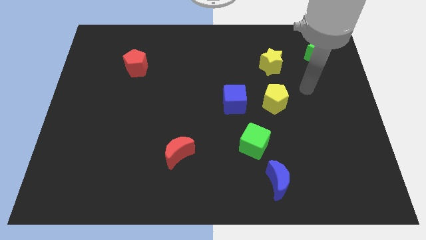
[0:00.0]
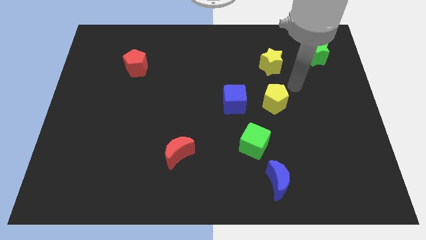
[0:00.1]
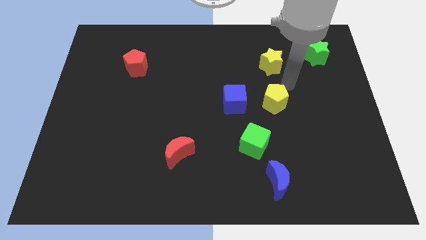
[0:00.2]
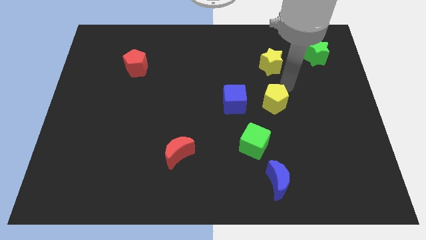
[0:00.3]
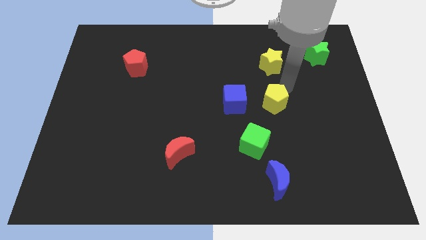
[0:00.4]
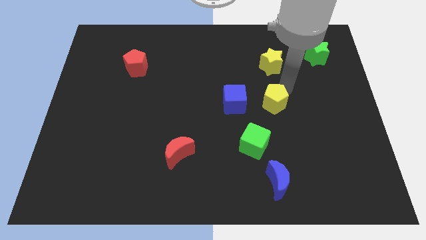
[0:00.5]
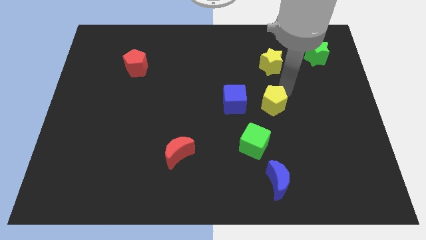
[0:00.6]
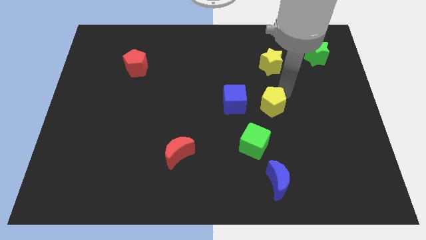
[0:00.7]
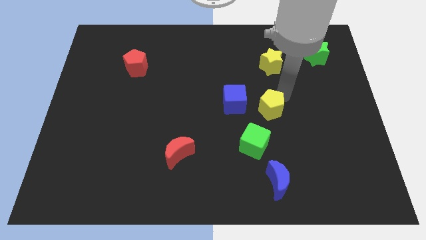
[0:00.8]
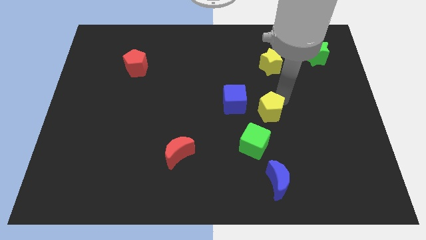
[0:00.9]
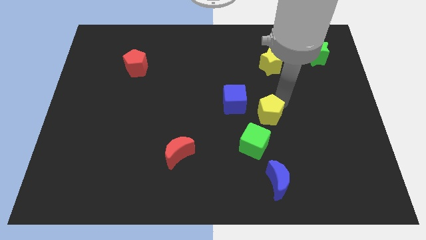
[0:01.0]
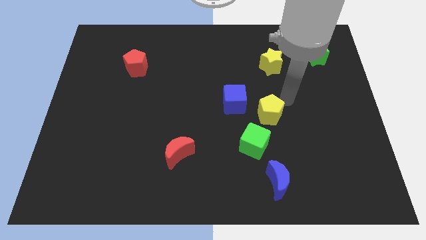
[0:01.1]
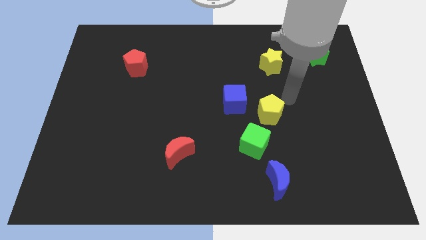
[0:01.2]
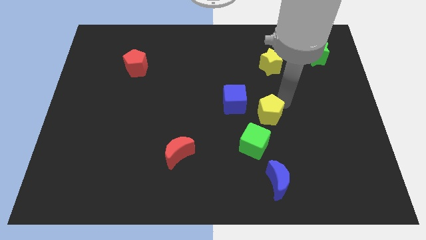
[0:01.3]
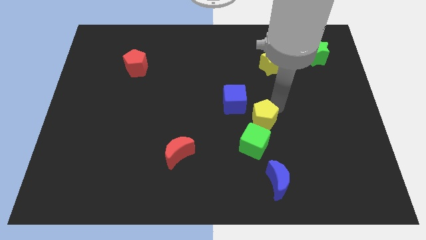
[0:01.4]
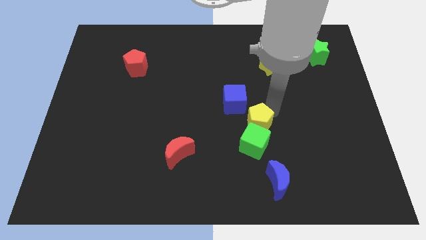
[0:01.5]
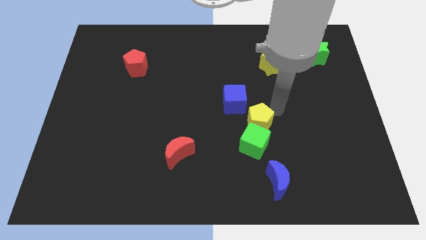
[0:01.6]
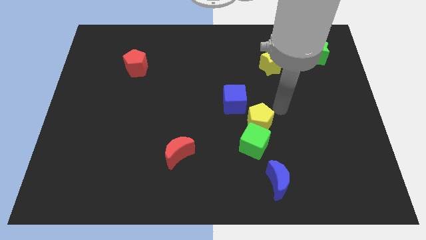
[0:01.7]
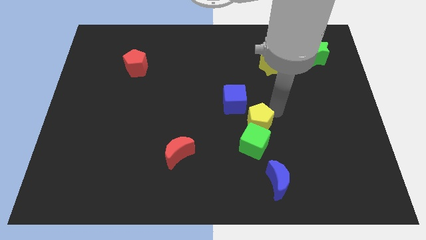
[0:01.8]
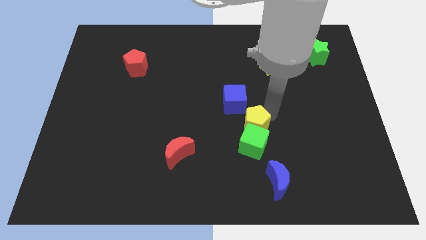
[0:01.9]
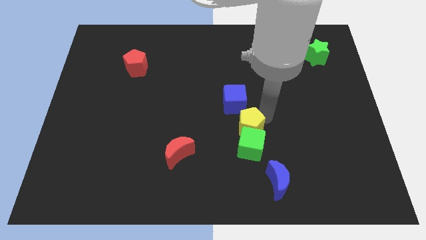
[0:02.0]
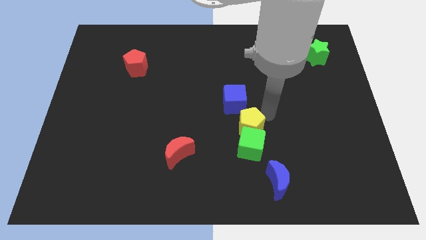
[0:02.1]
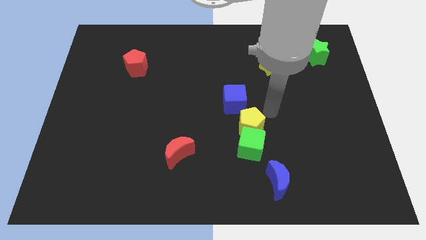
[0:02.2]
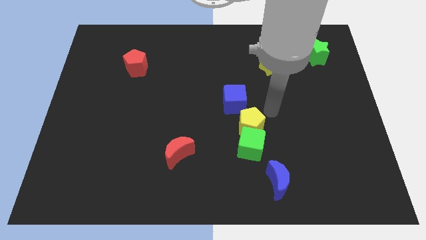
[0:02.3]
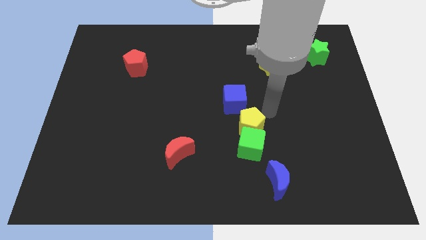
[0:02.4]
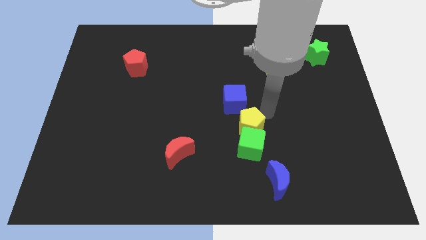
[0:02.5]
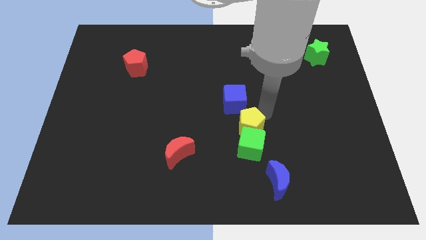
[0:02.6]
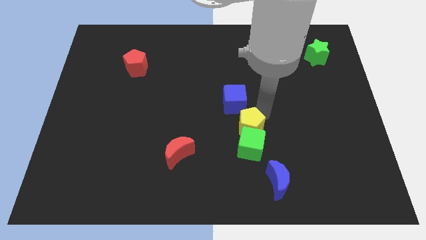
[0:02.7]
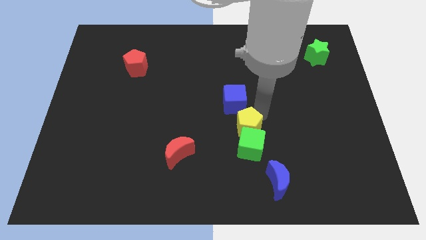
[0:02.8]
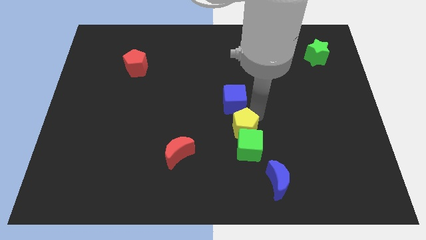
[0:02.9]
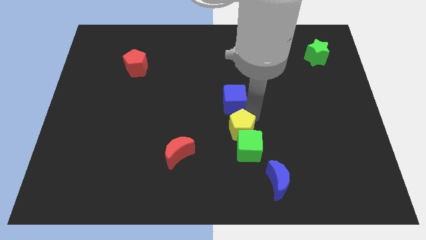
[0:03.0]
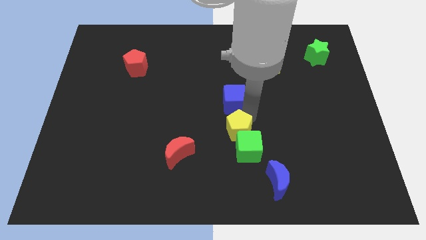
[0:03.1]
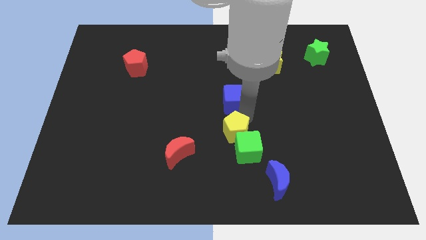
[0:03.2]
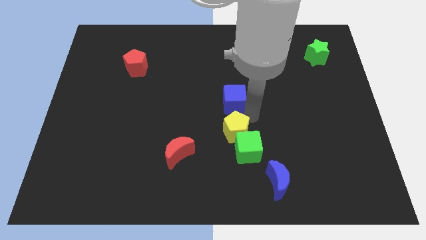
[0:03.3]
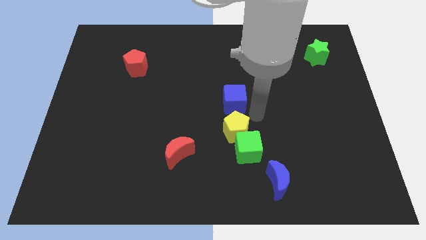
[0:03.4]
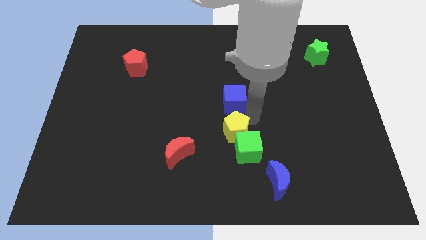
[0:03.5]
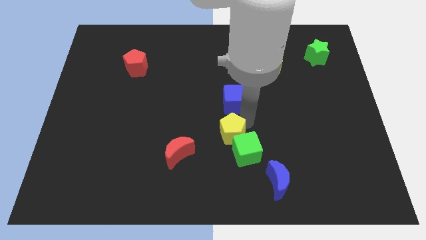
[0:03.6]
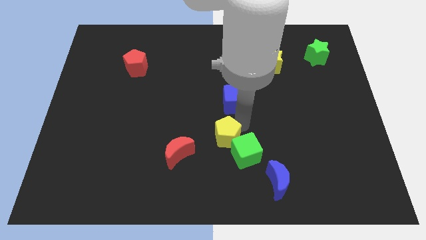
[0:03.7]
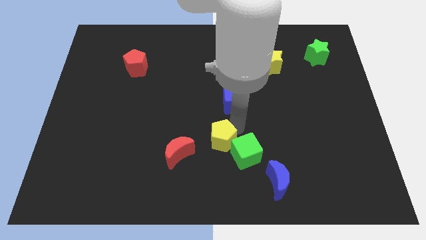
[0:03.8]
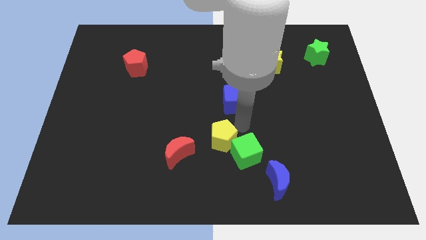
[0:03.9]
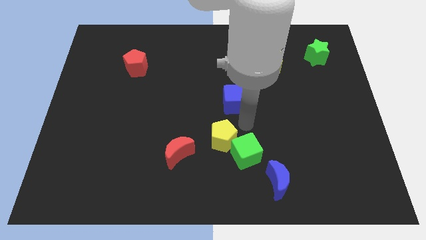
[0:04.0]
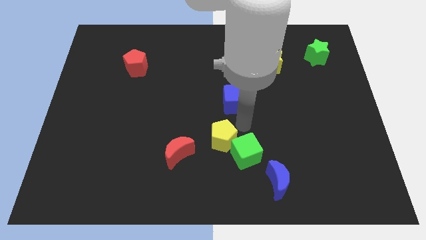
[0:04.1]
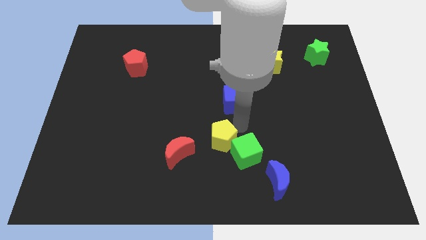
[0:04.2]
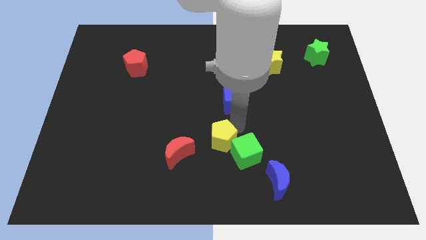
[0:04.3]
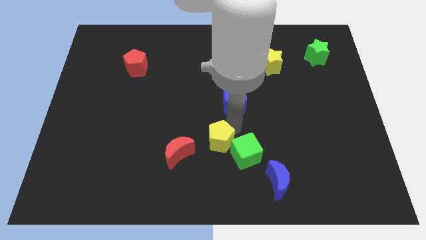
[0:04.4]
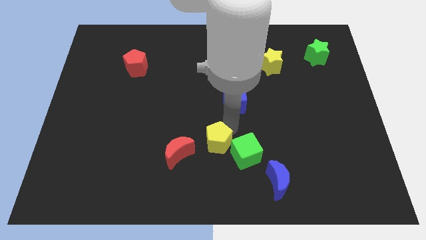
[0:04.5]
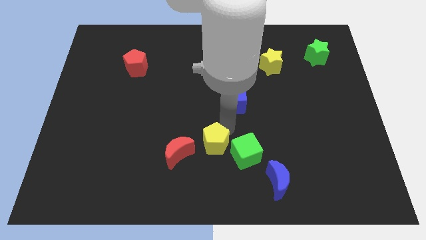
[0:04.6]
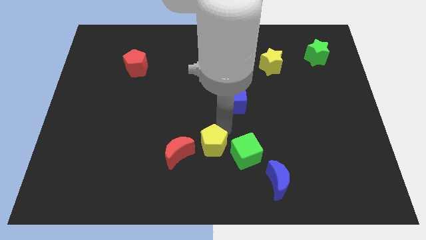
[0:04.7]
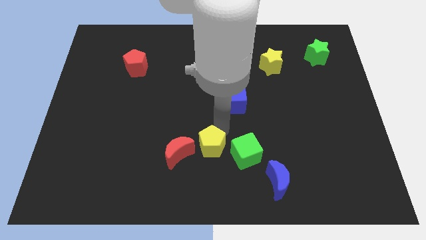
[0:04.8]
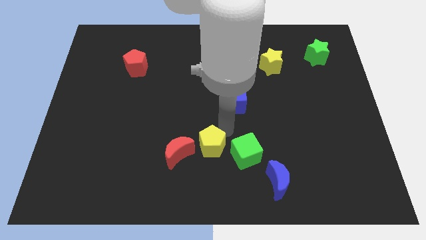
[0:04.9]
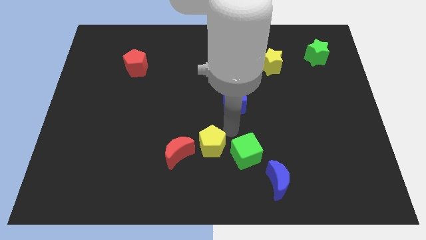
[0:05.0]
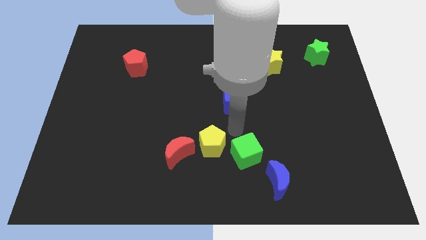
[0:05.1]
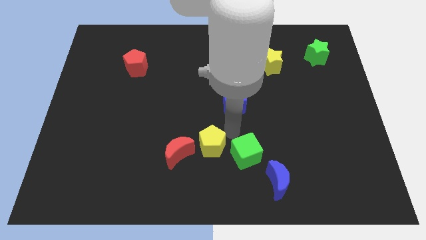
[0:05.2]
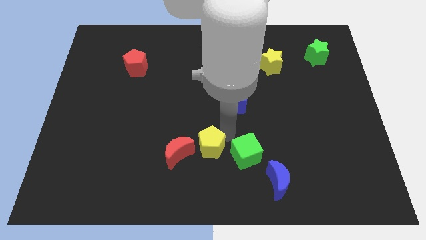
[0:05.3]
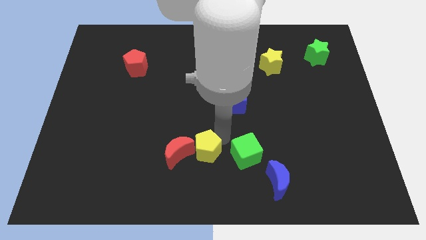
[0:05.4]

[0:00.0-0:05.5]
push the yellow pentagon towards the red moon

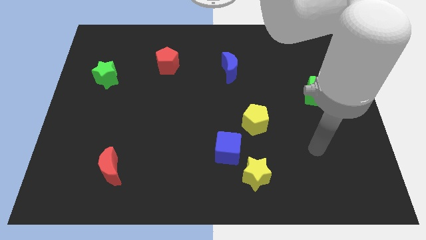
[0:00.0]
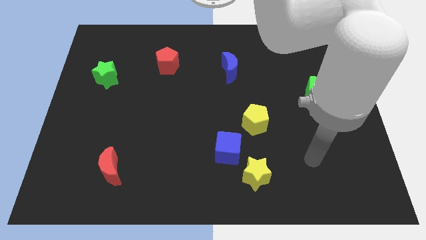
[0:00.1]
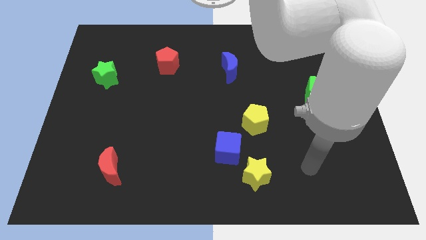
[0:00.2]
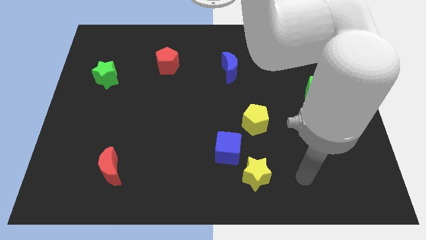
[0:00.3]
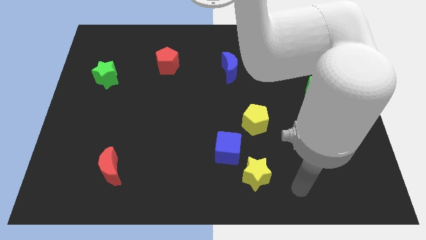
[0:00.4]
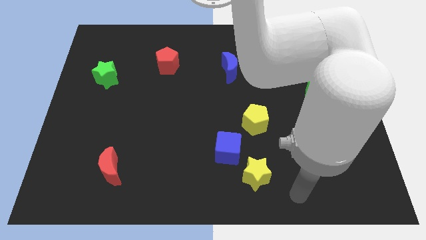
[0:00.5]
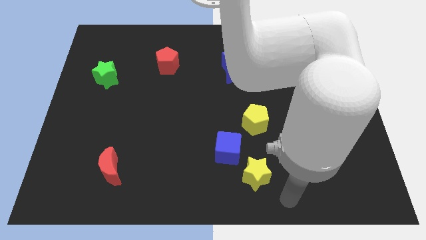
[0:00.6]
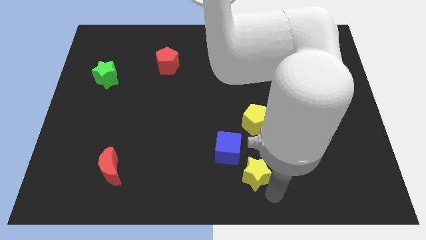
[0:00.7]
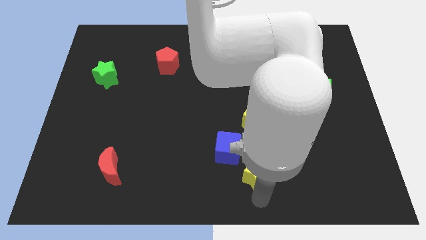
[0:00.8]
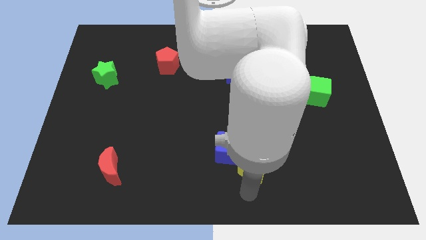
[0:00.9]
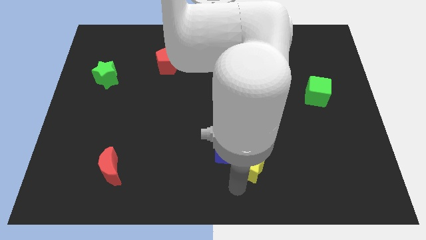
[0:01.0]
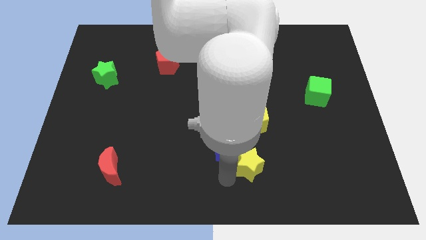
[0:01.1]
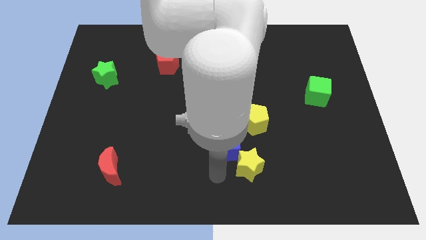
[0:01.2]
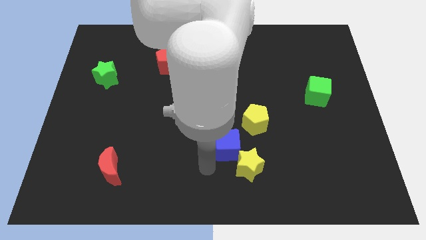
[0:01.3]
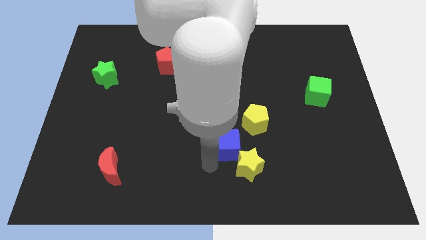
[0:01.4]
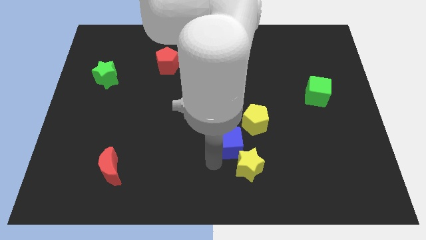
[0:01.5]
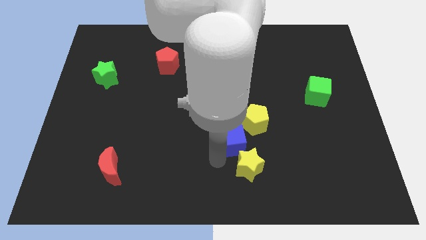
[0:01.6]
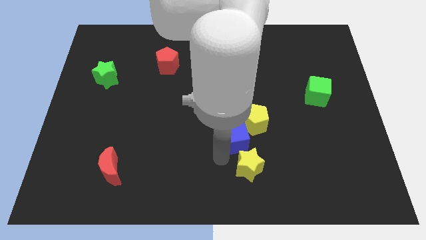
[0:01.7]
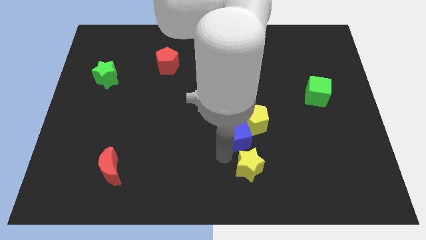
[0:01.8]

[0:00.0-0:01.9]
move the blue cube close to the yellow pentagon

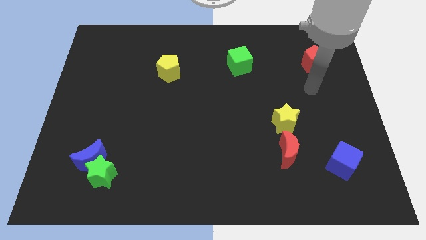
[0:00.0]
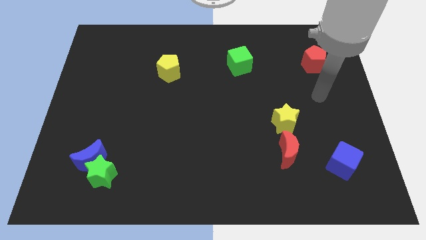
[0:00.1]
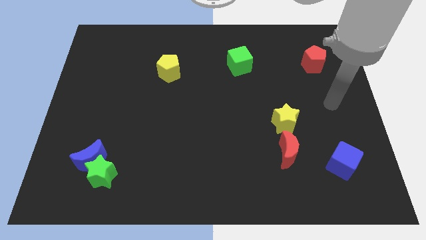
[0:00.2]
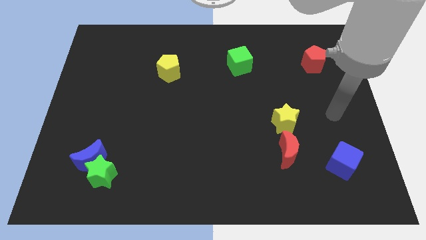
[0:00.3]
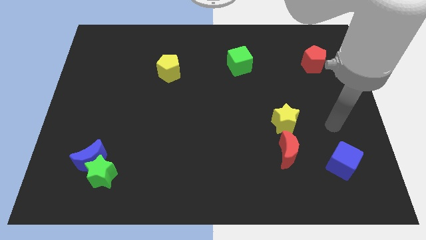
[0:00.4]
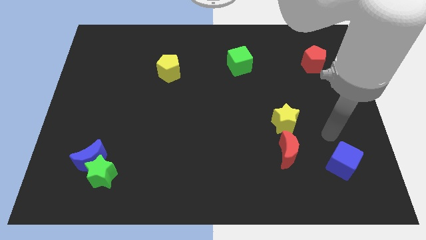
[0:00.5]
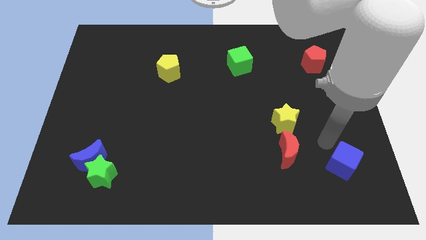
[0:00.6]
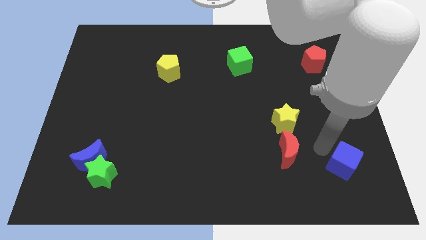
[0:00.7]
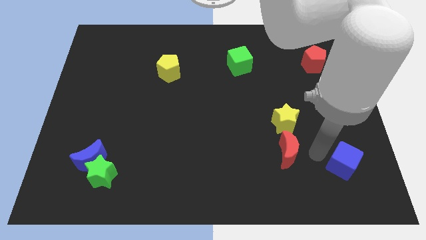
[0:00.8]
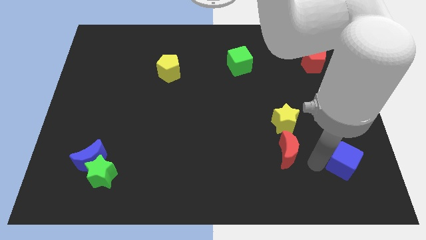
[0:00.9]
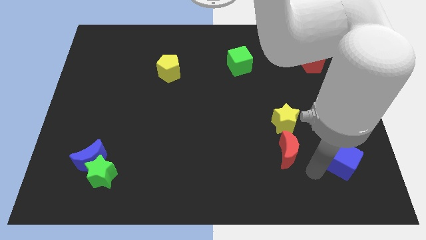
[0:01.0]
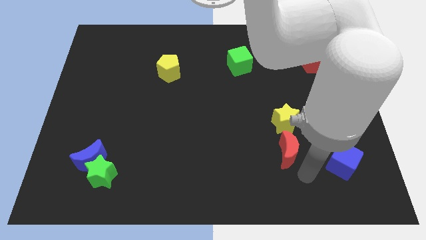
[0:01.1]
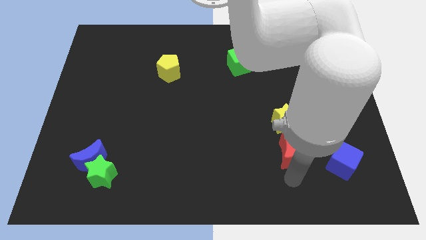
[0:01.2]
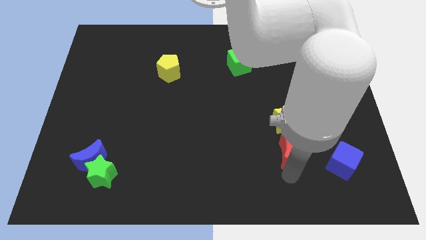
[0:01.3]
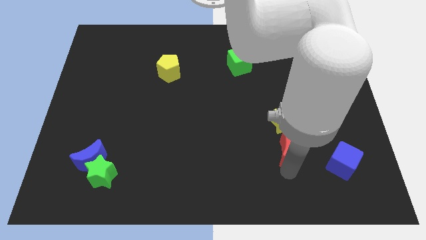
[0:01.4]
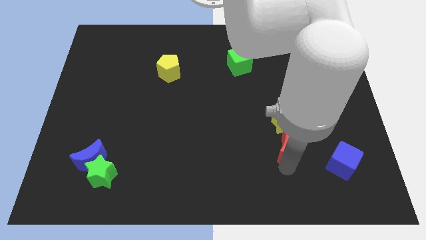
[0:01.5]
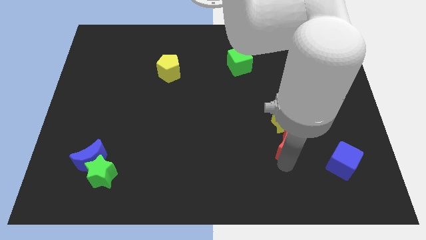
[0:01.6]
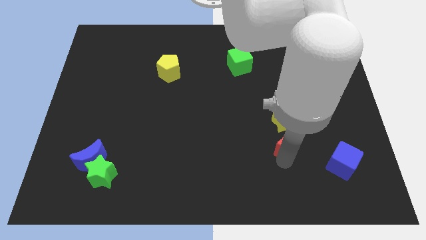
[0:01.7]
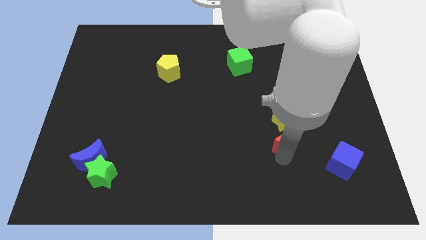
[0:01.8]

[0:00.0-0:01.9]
move the red moon next to the yellow star
